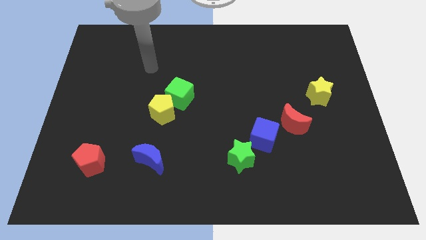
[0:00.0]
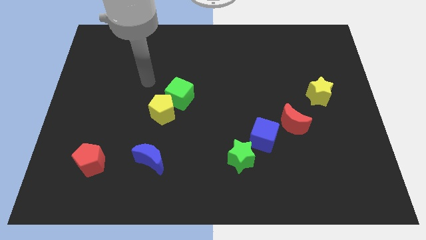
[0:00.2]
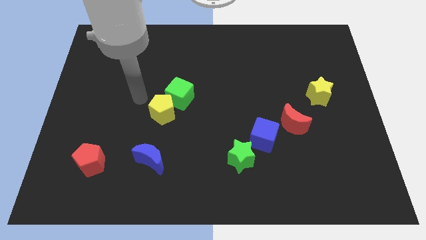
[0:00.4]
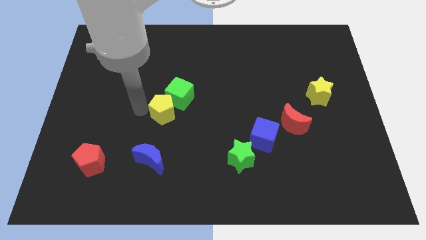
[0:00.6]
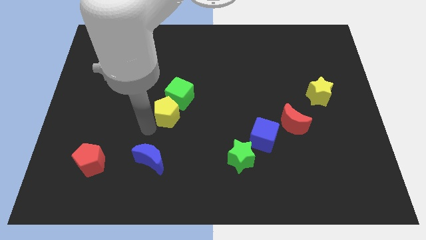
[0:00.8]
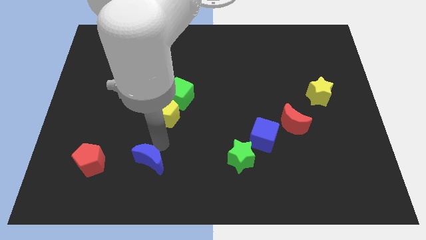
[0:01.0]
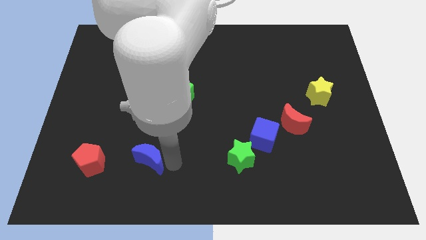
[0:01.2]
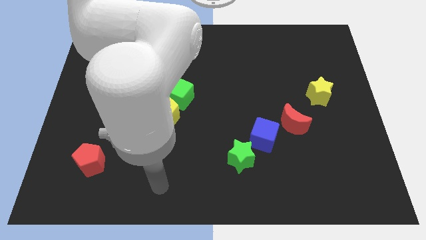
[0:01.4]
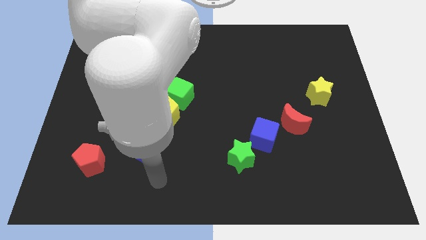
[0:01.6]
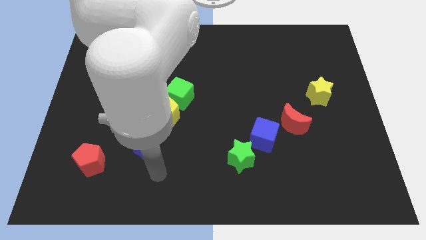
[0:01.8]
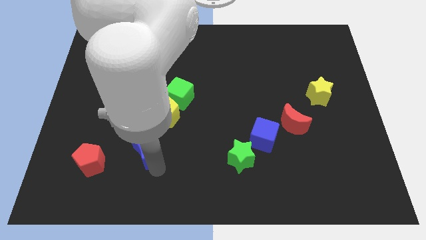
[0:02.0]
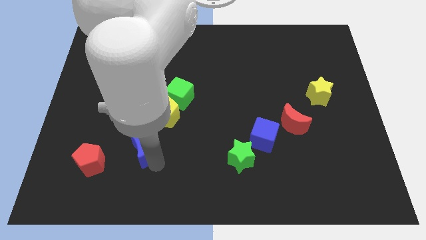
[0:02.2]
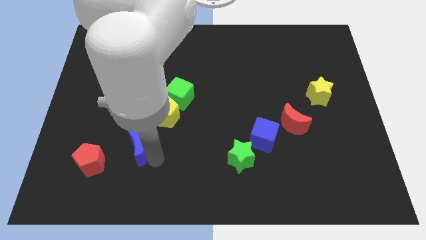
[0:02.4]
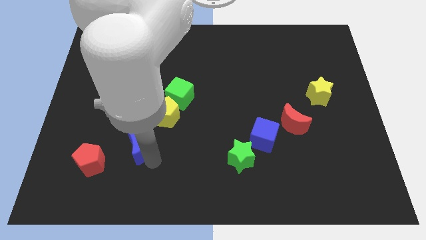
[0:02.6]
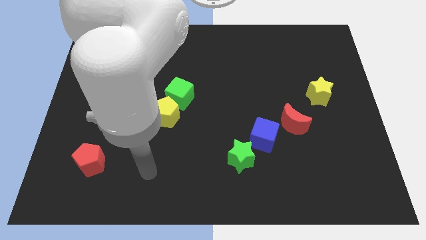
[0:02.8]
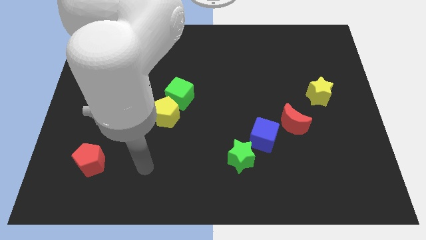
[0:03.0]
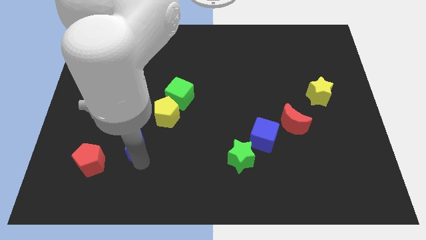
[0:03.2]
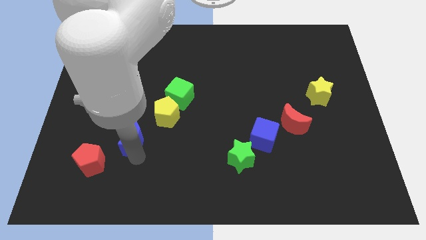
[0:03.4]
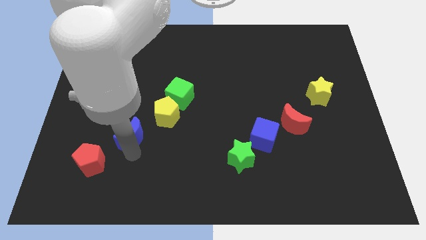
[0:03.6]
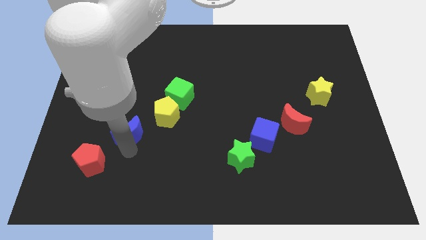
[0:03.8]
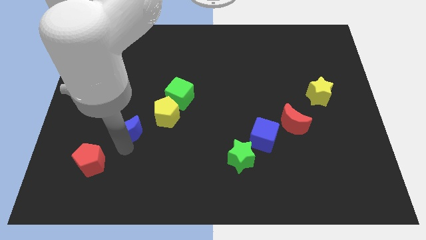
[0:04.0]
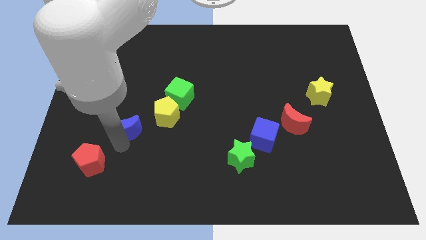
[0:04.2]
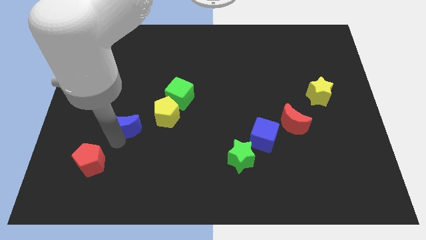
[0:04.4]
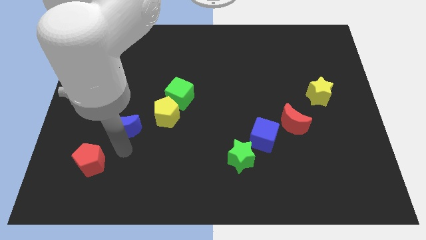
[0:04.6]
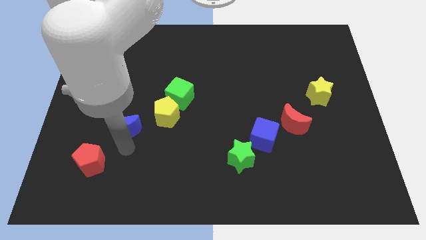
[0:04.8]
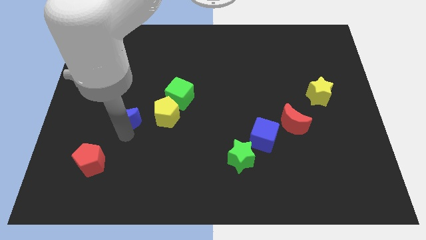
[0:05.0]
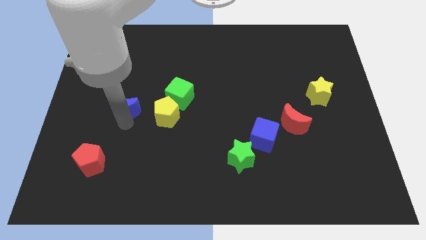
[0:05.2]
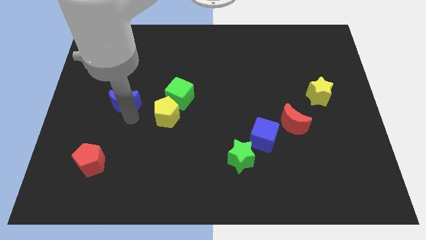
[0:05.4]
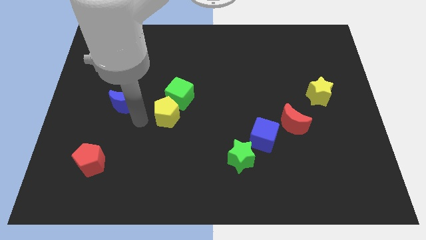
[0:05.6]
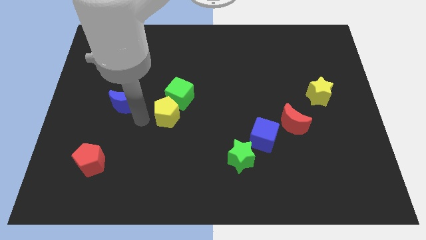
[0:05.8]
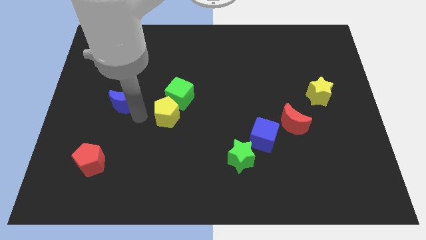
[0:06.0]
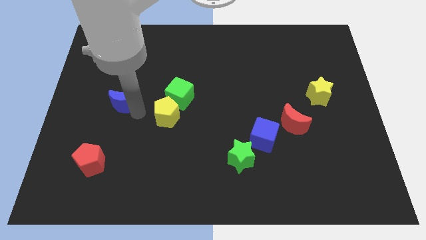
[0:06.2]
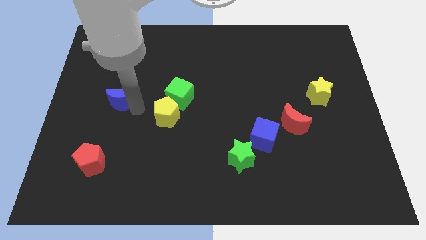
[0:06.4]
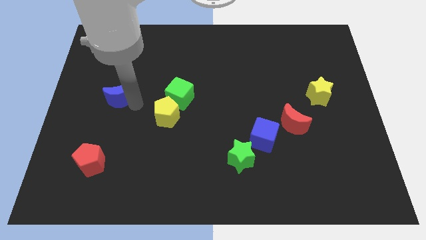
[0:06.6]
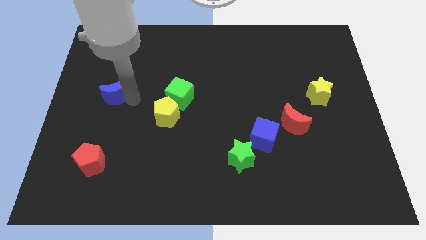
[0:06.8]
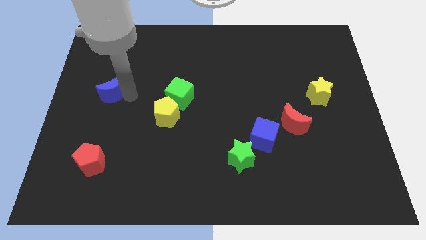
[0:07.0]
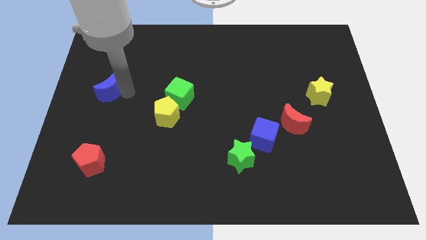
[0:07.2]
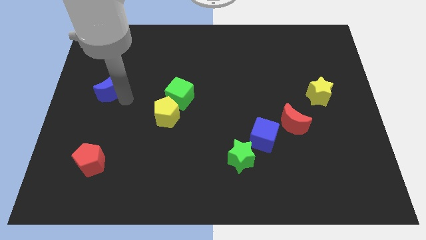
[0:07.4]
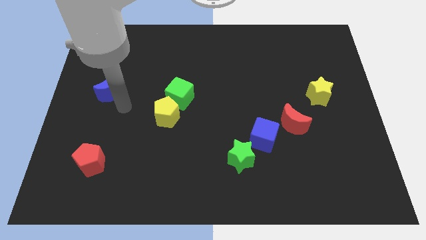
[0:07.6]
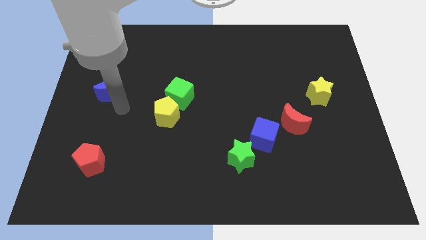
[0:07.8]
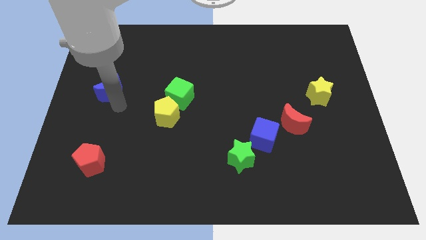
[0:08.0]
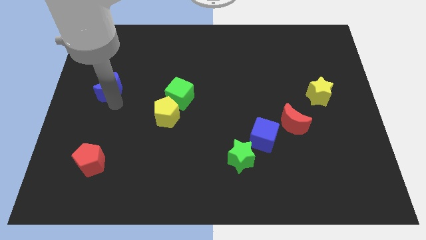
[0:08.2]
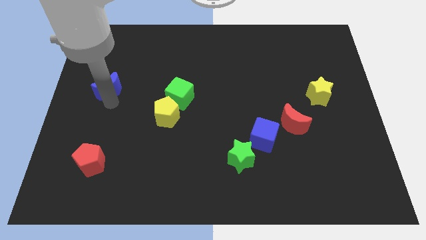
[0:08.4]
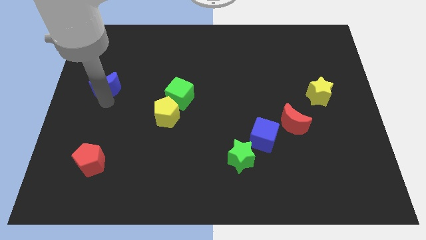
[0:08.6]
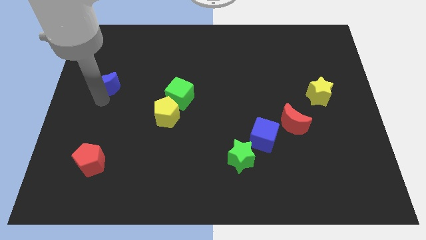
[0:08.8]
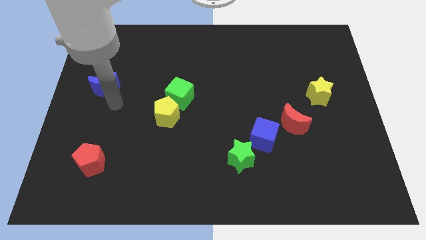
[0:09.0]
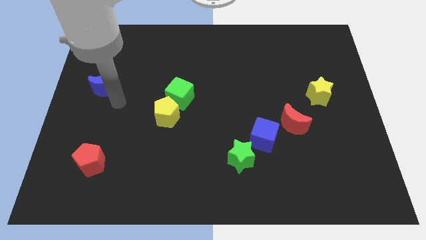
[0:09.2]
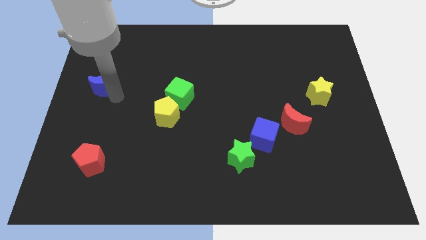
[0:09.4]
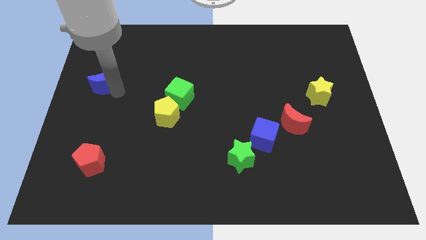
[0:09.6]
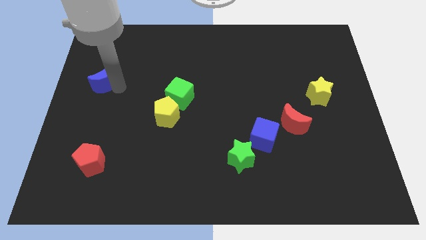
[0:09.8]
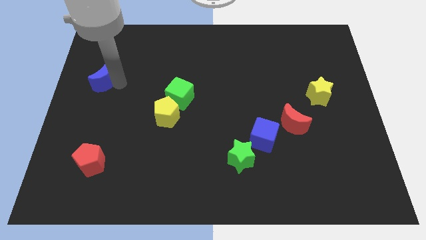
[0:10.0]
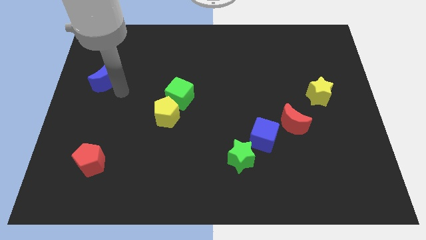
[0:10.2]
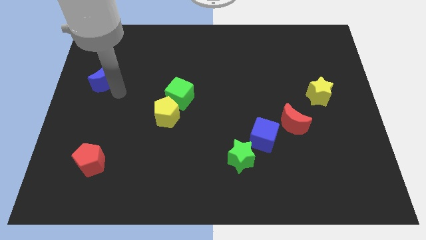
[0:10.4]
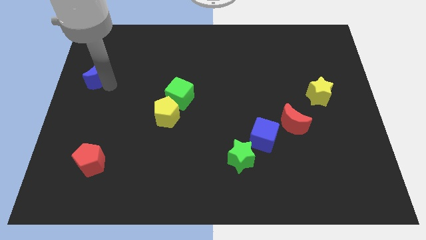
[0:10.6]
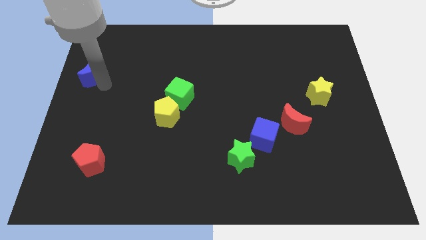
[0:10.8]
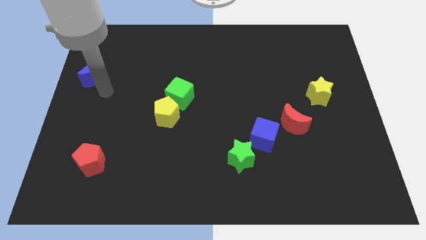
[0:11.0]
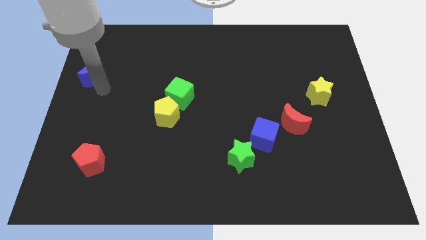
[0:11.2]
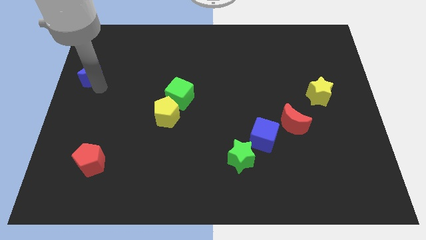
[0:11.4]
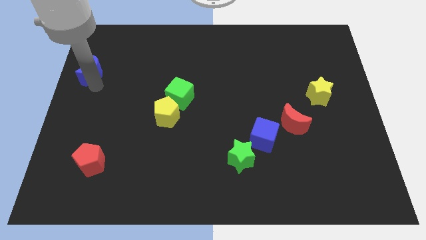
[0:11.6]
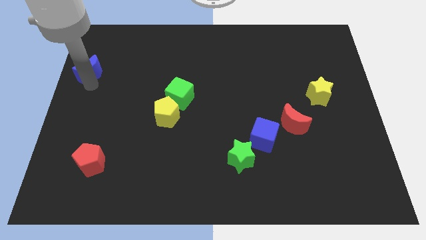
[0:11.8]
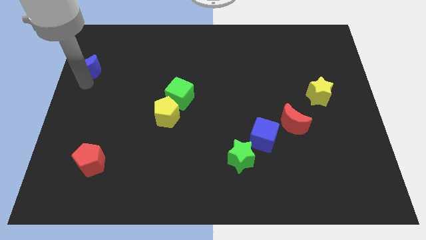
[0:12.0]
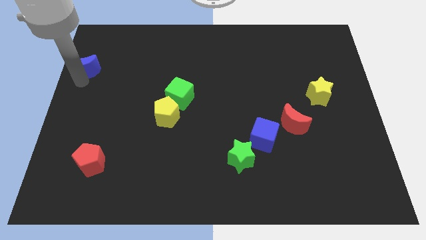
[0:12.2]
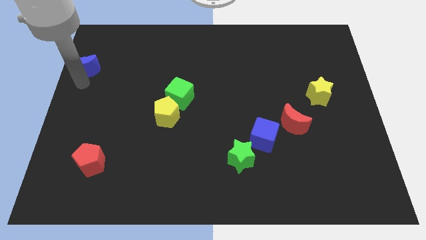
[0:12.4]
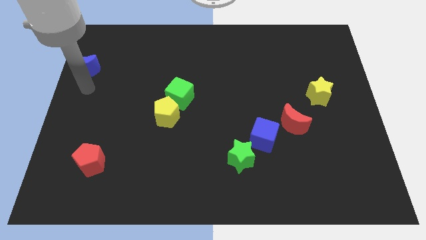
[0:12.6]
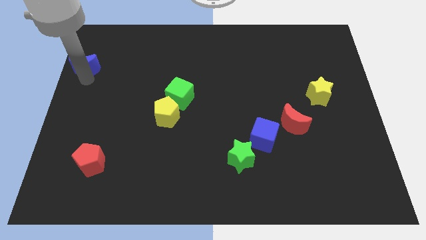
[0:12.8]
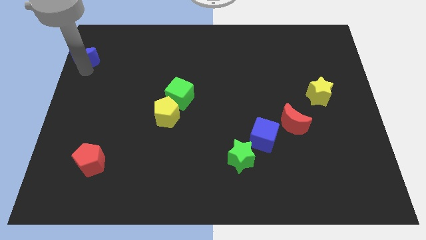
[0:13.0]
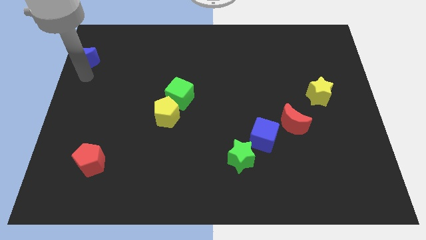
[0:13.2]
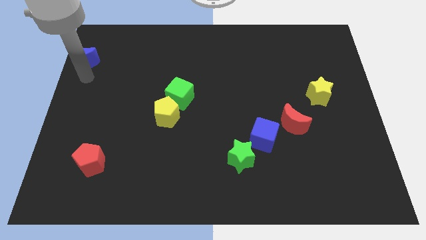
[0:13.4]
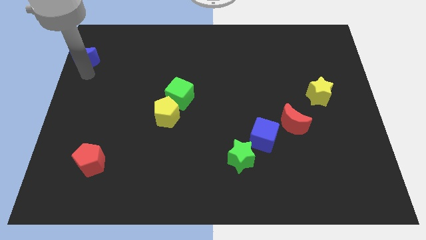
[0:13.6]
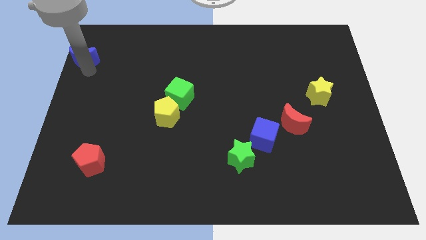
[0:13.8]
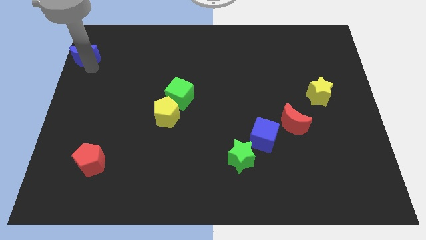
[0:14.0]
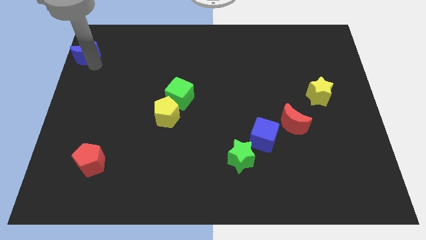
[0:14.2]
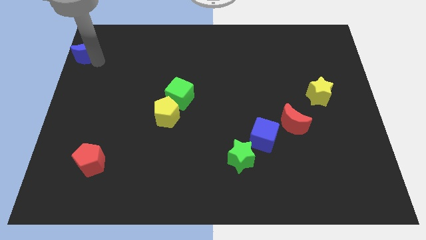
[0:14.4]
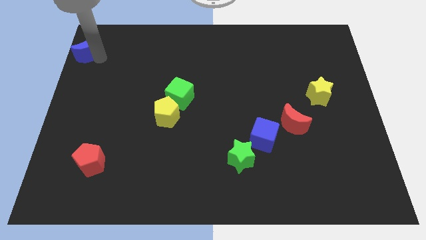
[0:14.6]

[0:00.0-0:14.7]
slide the blue moon to the top left corner
